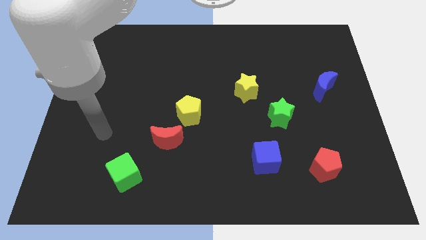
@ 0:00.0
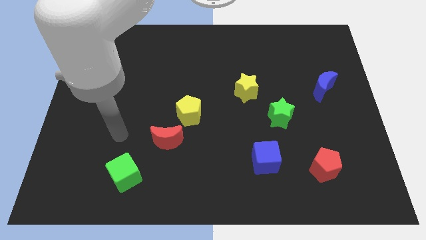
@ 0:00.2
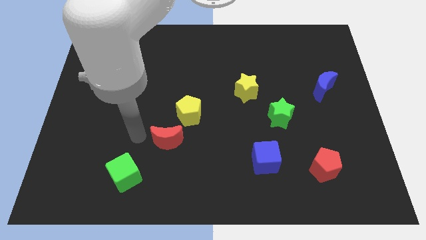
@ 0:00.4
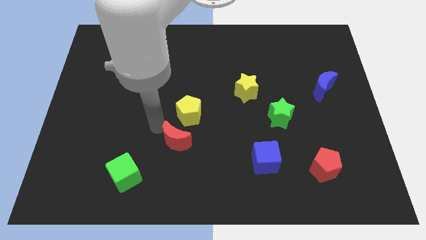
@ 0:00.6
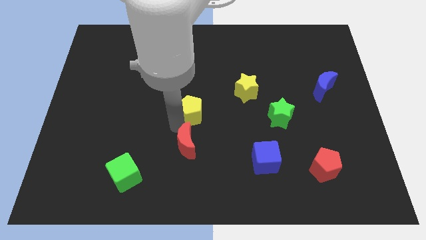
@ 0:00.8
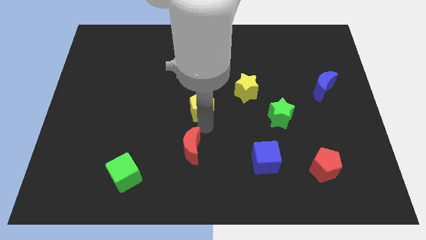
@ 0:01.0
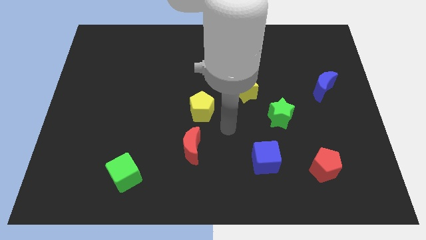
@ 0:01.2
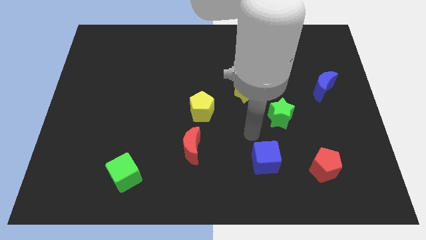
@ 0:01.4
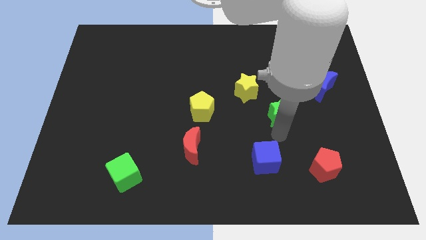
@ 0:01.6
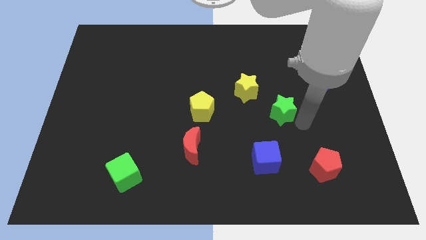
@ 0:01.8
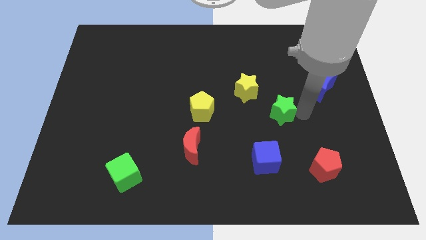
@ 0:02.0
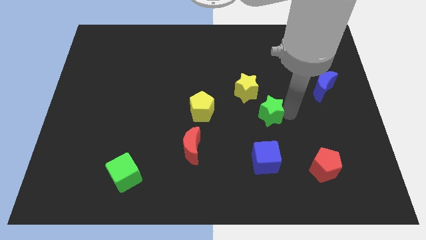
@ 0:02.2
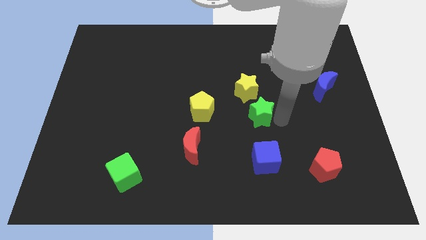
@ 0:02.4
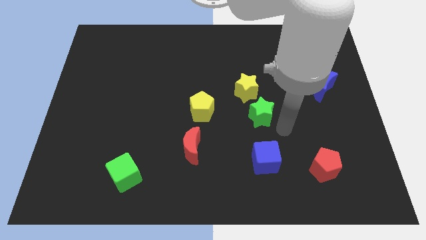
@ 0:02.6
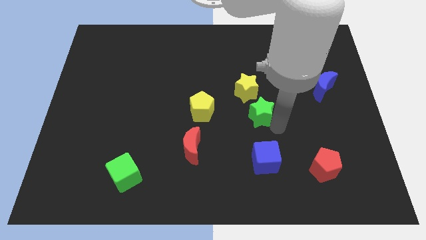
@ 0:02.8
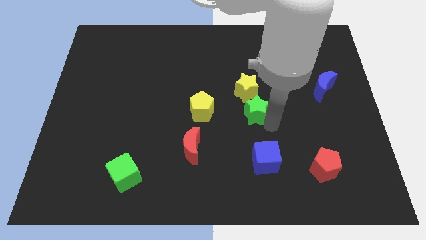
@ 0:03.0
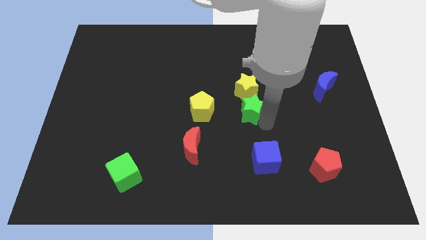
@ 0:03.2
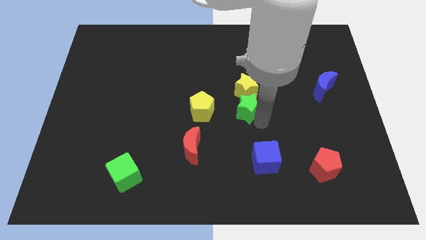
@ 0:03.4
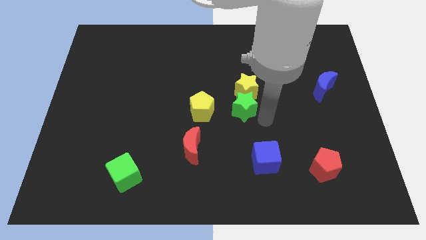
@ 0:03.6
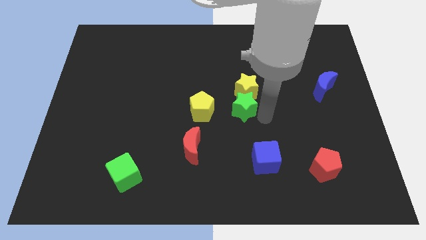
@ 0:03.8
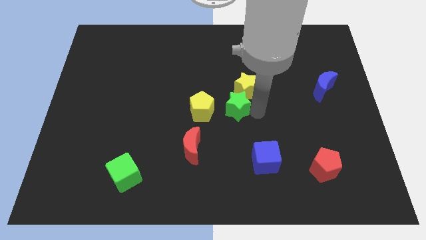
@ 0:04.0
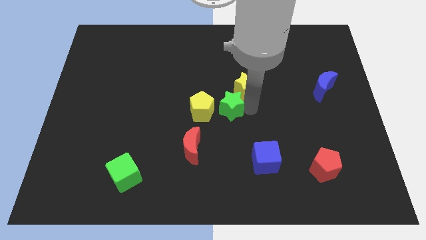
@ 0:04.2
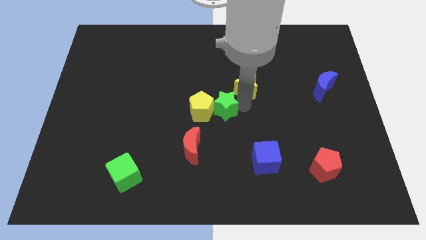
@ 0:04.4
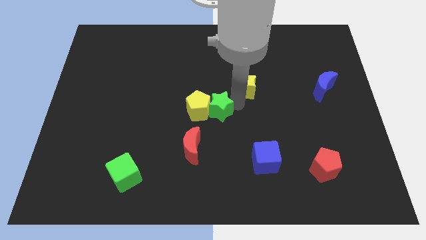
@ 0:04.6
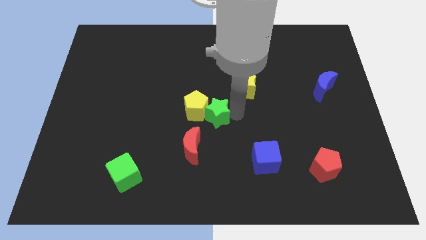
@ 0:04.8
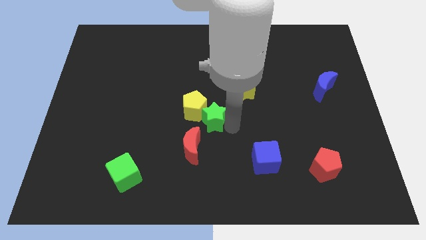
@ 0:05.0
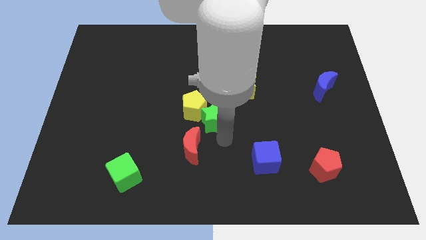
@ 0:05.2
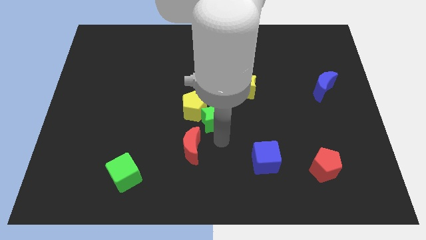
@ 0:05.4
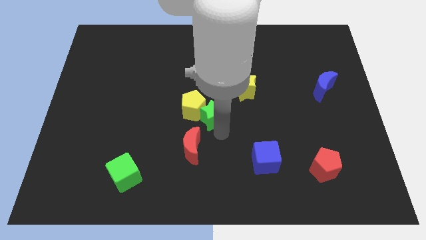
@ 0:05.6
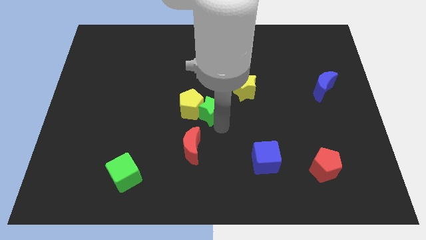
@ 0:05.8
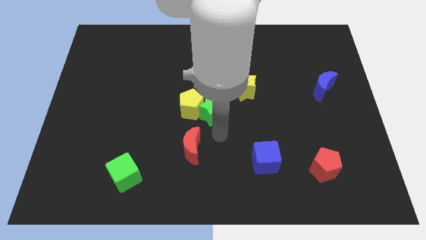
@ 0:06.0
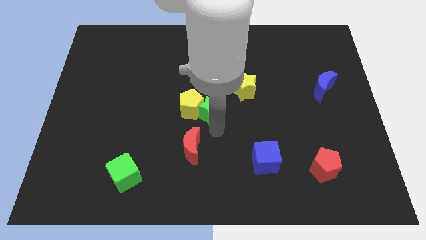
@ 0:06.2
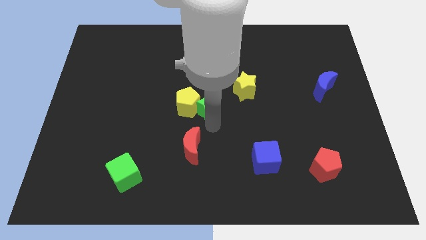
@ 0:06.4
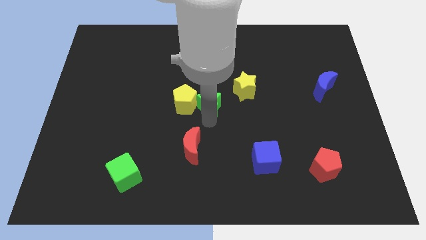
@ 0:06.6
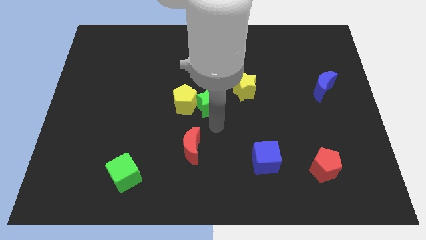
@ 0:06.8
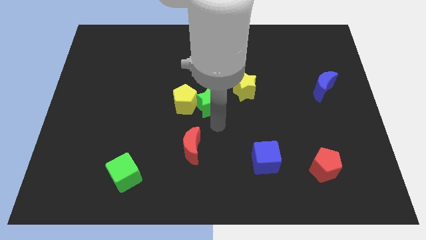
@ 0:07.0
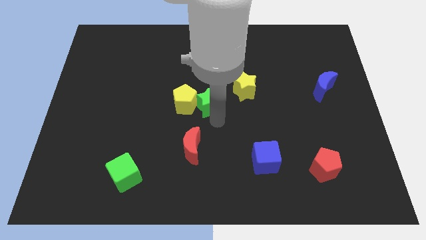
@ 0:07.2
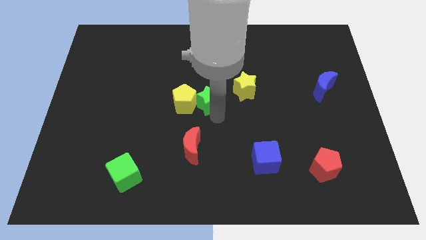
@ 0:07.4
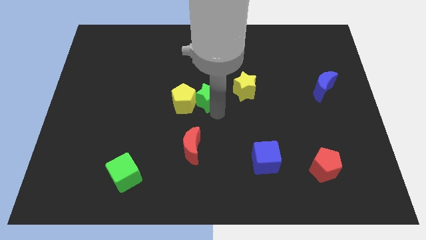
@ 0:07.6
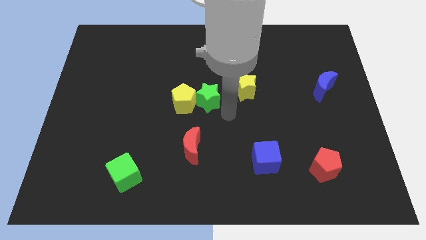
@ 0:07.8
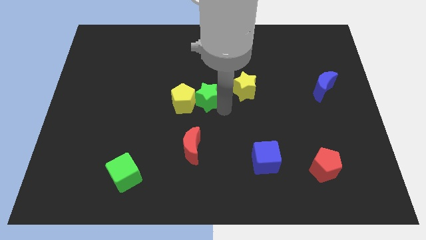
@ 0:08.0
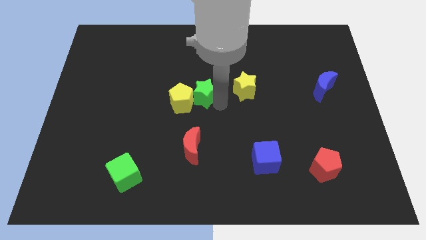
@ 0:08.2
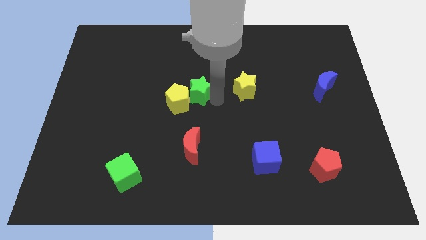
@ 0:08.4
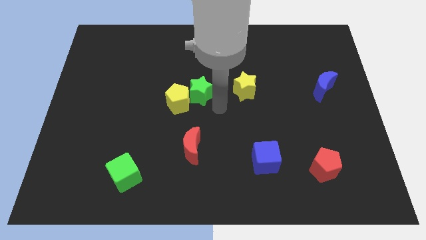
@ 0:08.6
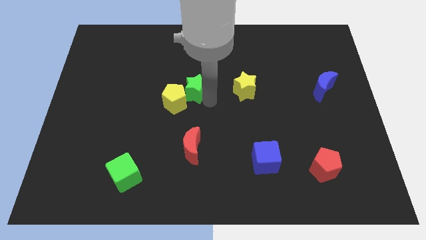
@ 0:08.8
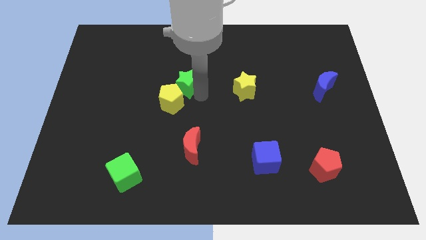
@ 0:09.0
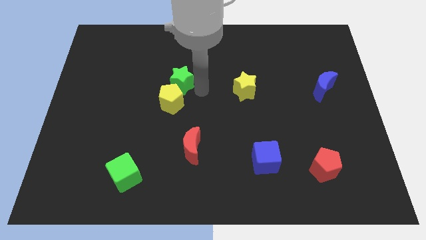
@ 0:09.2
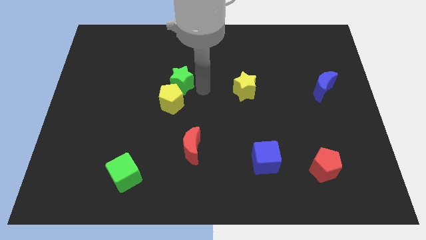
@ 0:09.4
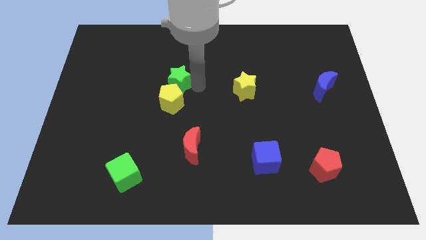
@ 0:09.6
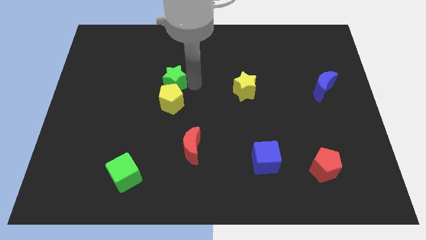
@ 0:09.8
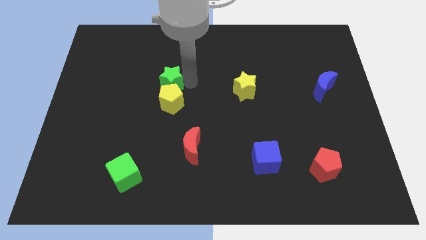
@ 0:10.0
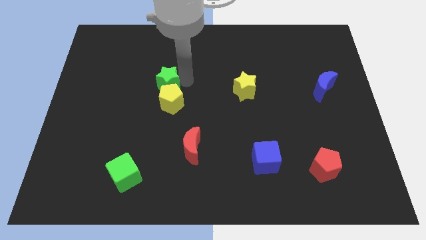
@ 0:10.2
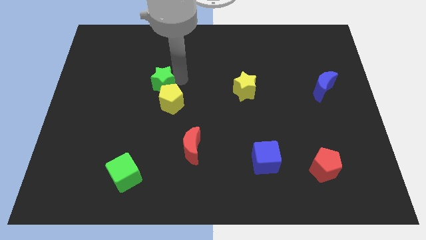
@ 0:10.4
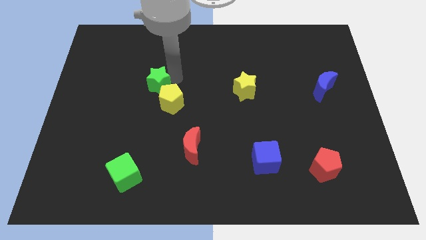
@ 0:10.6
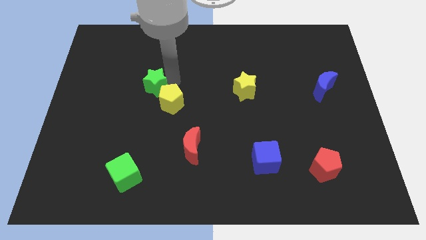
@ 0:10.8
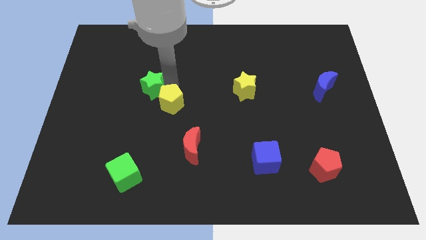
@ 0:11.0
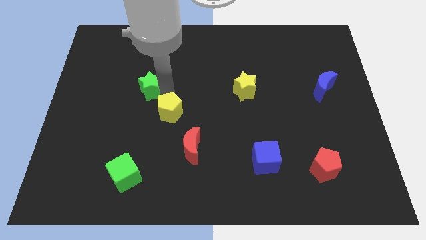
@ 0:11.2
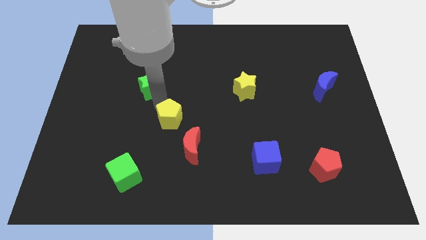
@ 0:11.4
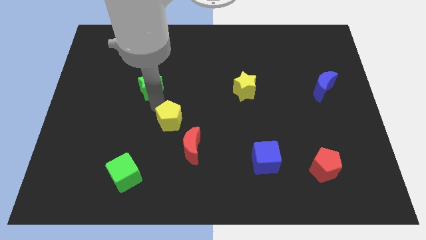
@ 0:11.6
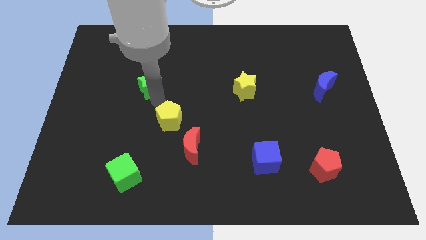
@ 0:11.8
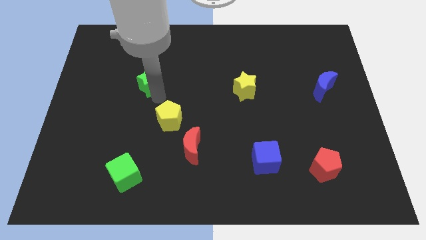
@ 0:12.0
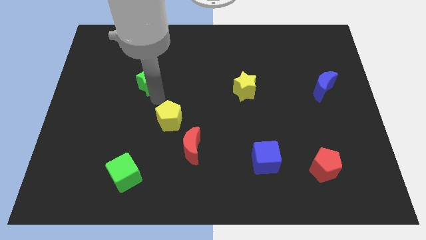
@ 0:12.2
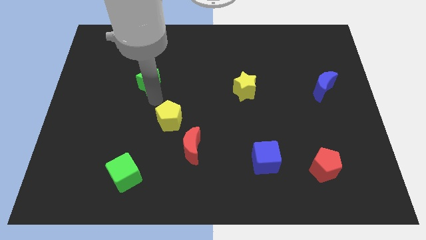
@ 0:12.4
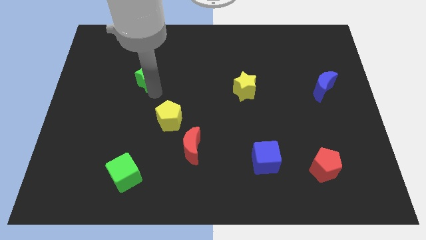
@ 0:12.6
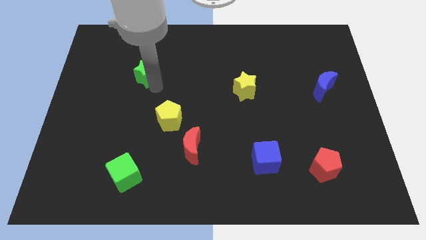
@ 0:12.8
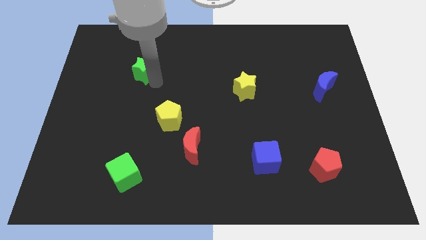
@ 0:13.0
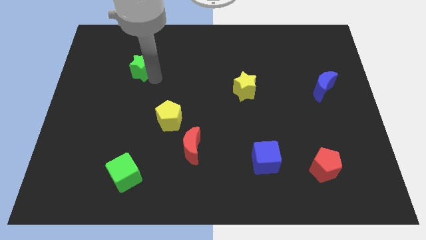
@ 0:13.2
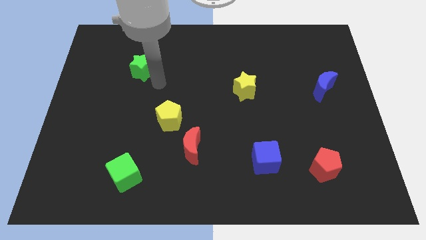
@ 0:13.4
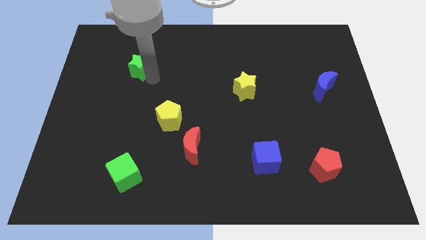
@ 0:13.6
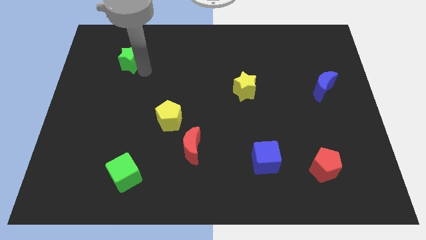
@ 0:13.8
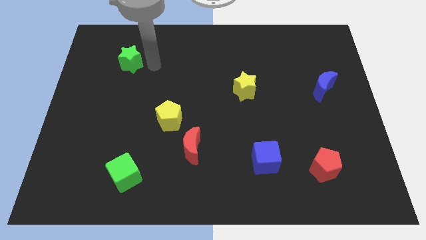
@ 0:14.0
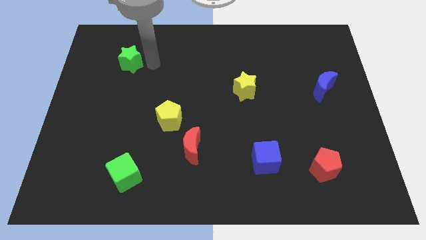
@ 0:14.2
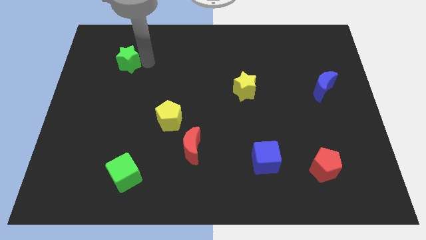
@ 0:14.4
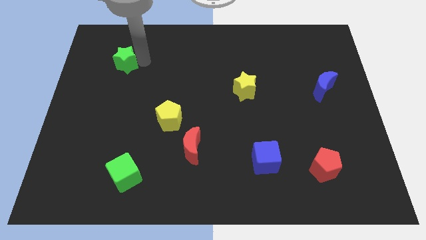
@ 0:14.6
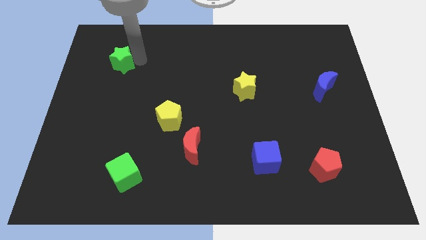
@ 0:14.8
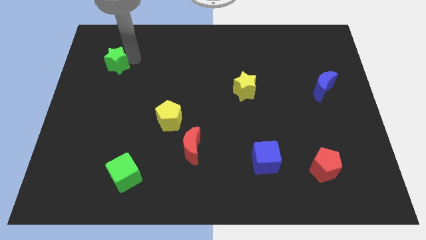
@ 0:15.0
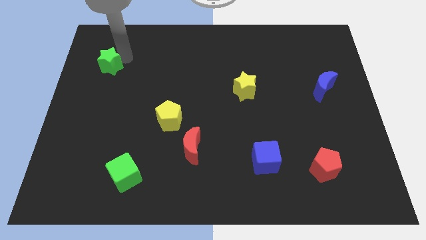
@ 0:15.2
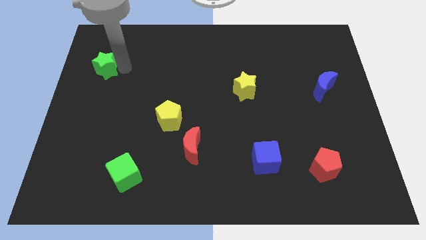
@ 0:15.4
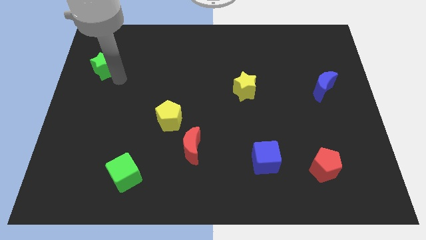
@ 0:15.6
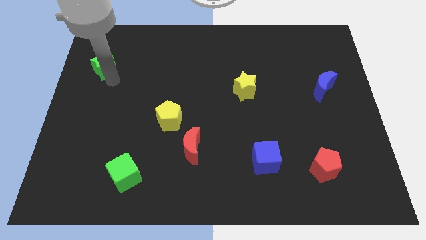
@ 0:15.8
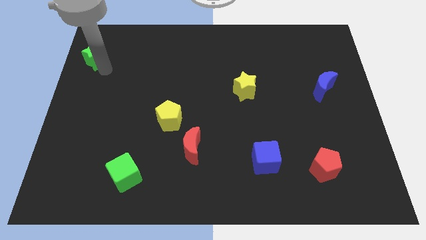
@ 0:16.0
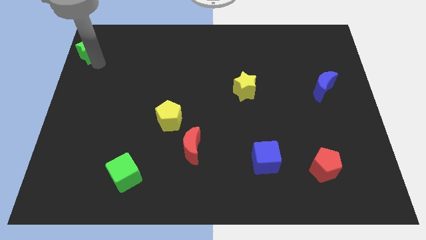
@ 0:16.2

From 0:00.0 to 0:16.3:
slide the green star to the top left of the board
